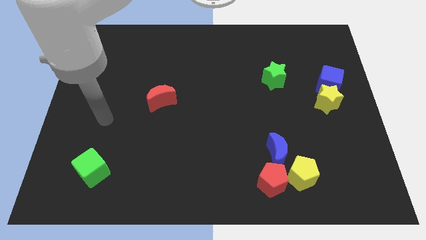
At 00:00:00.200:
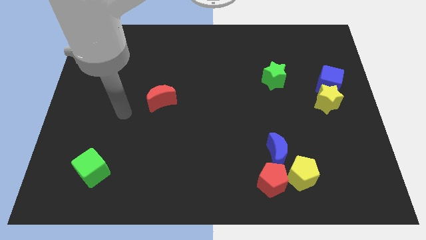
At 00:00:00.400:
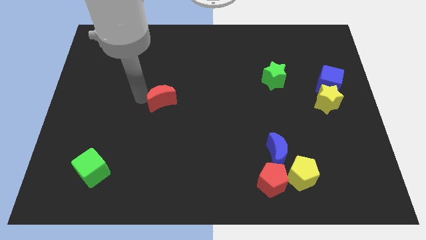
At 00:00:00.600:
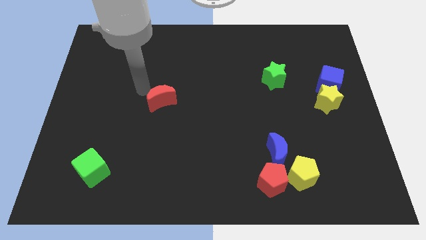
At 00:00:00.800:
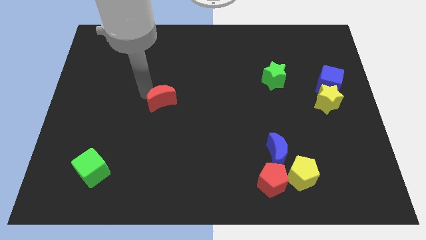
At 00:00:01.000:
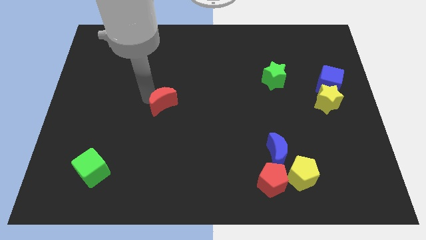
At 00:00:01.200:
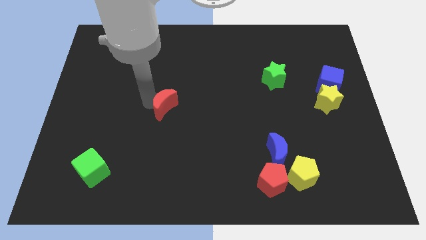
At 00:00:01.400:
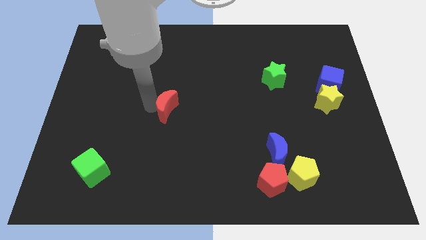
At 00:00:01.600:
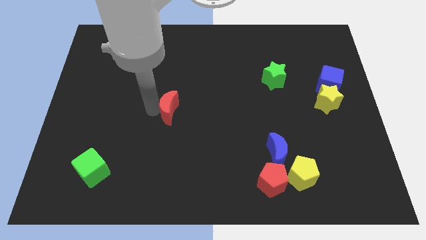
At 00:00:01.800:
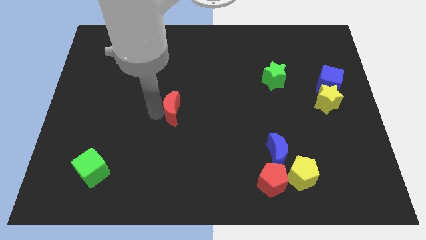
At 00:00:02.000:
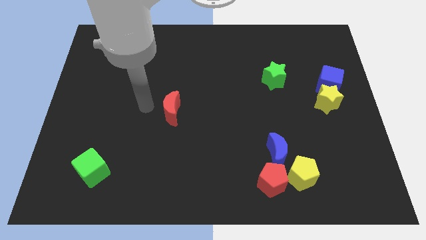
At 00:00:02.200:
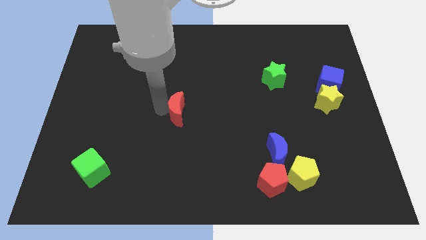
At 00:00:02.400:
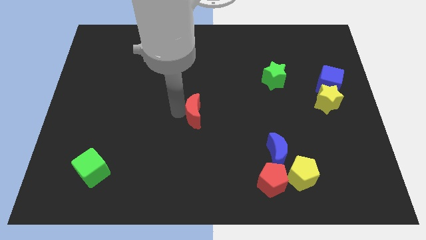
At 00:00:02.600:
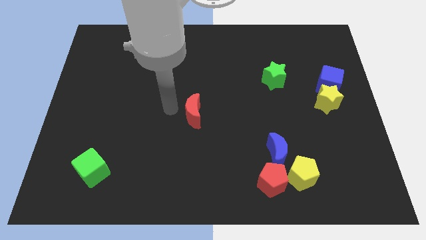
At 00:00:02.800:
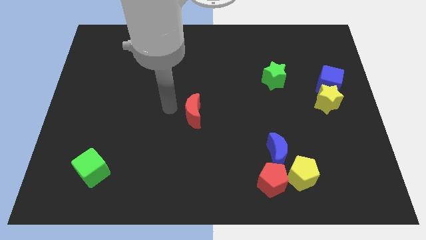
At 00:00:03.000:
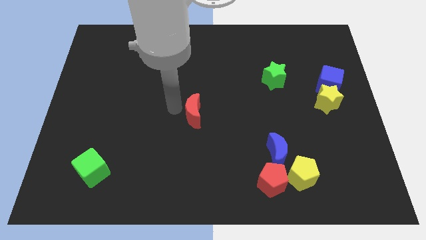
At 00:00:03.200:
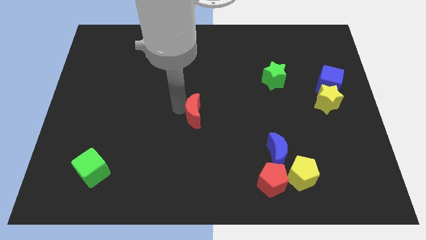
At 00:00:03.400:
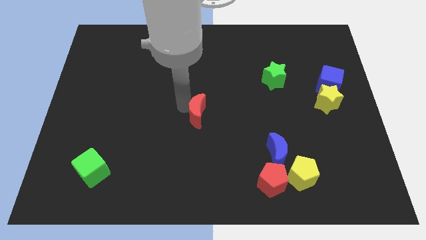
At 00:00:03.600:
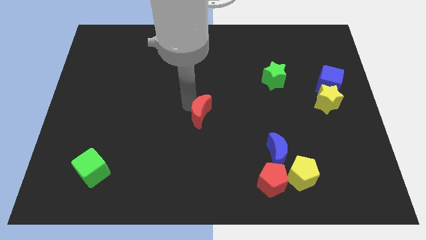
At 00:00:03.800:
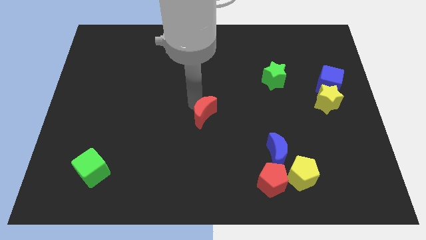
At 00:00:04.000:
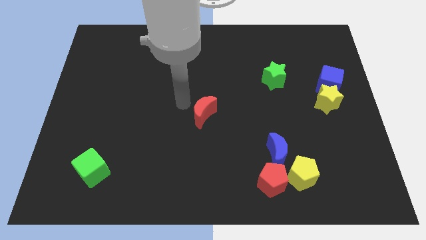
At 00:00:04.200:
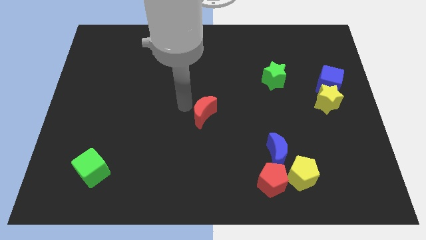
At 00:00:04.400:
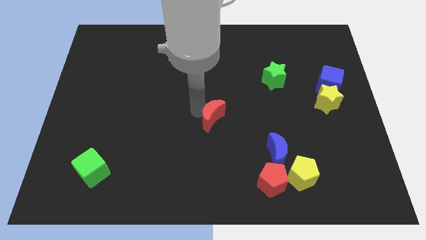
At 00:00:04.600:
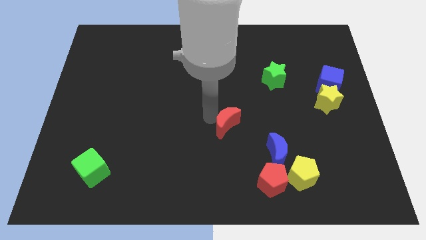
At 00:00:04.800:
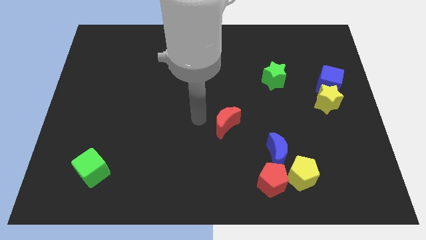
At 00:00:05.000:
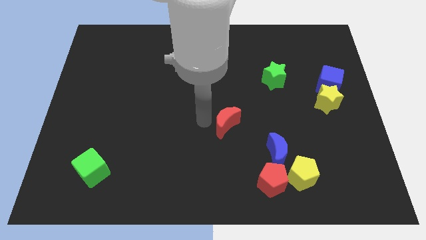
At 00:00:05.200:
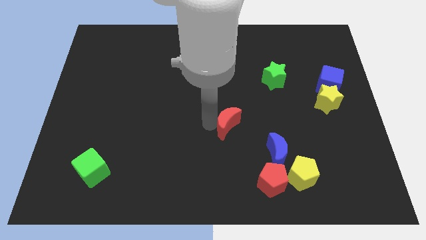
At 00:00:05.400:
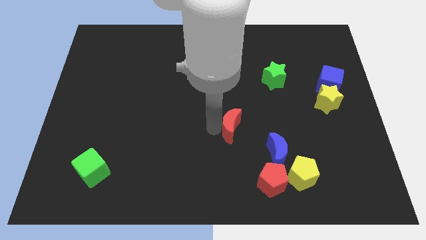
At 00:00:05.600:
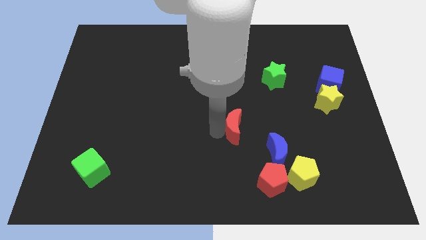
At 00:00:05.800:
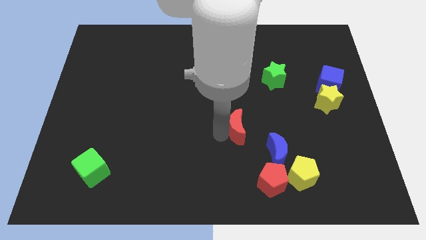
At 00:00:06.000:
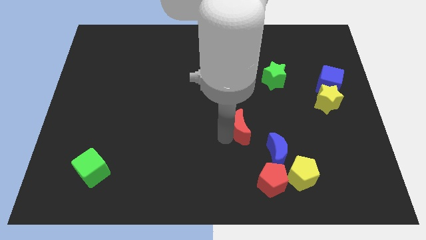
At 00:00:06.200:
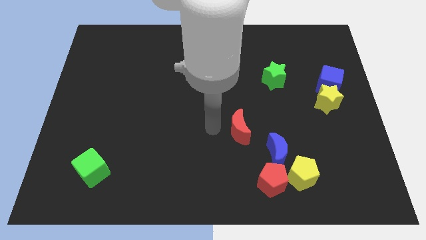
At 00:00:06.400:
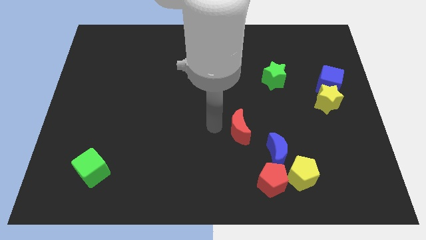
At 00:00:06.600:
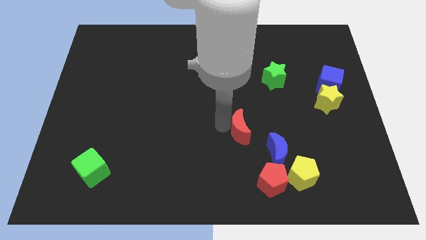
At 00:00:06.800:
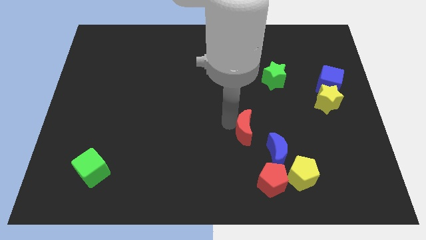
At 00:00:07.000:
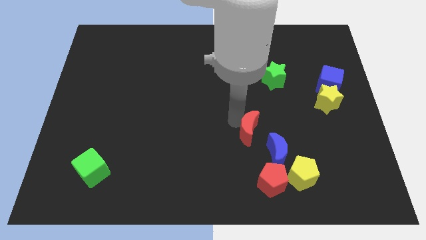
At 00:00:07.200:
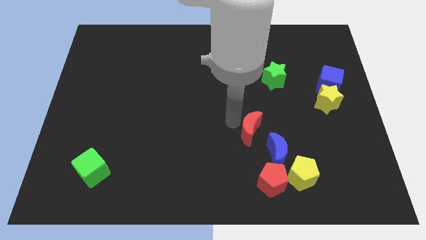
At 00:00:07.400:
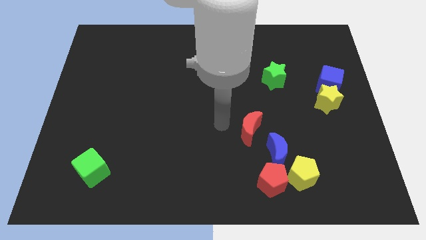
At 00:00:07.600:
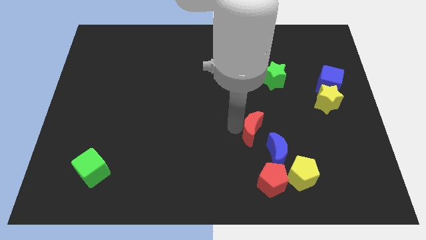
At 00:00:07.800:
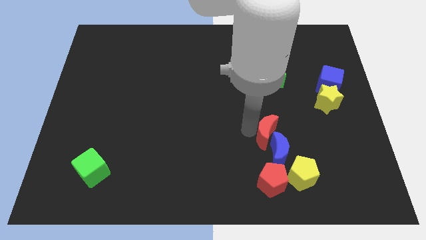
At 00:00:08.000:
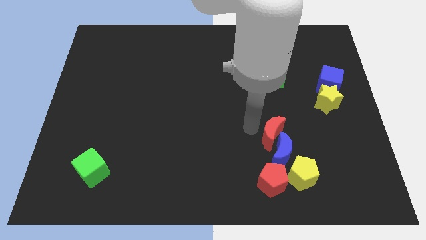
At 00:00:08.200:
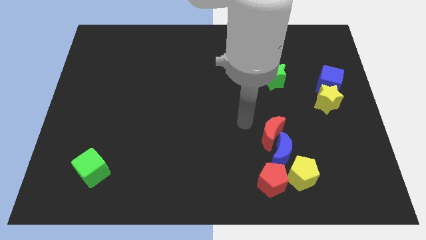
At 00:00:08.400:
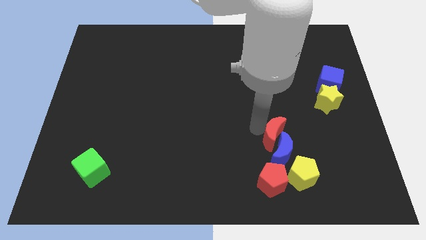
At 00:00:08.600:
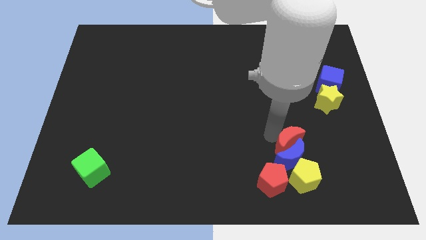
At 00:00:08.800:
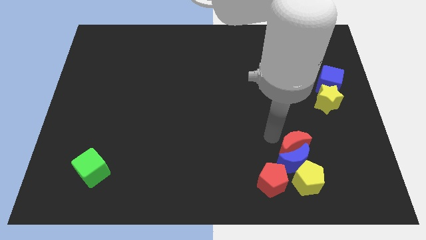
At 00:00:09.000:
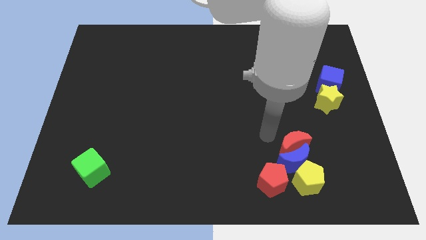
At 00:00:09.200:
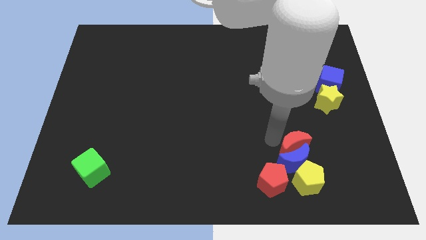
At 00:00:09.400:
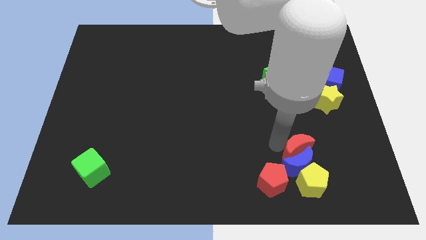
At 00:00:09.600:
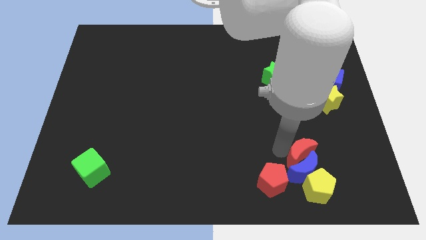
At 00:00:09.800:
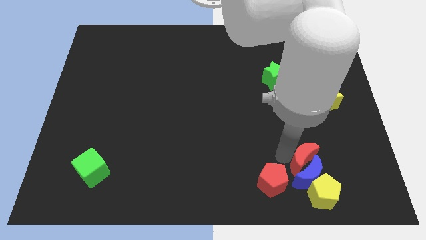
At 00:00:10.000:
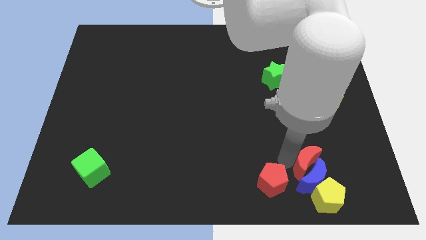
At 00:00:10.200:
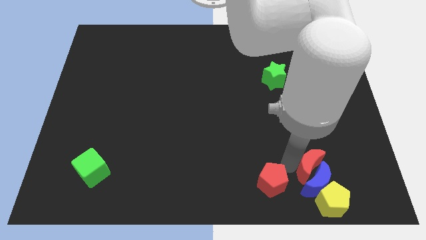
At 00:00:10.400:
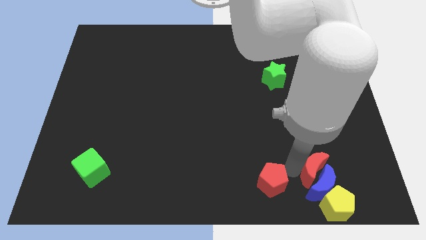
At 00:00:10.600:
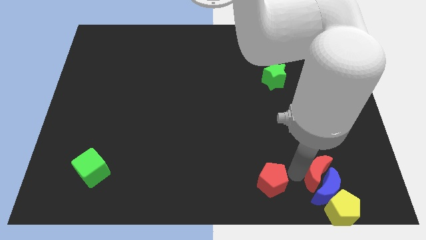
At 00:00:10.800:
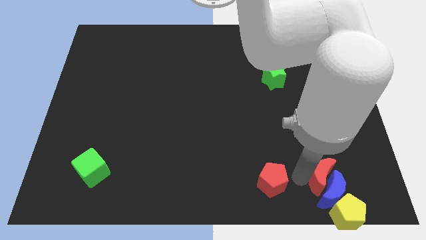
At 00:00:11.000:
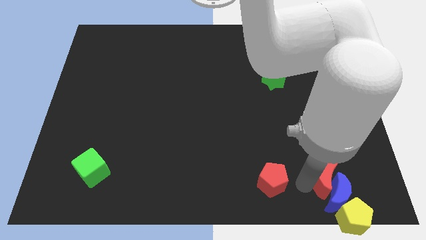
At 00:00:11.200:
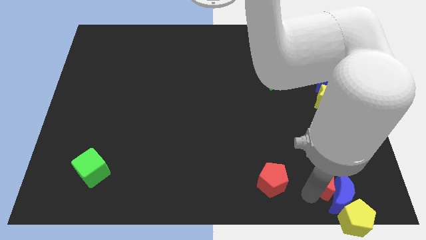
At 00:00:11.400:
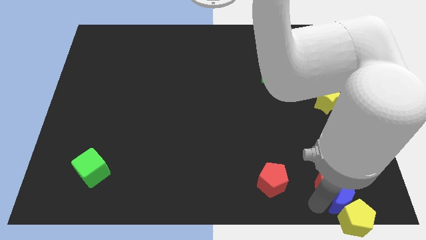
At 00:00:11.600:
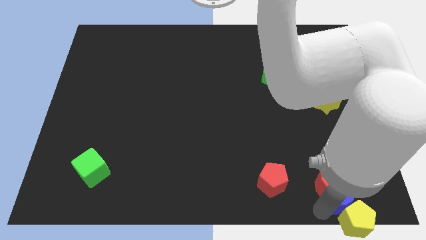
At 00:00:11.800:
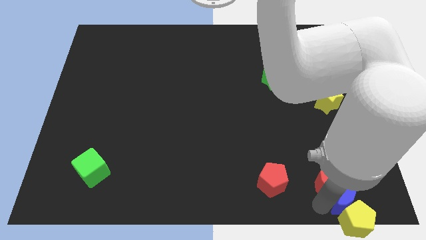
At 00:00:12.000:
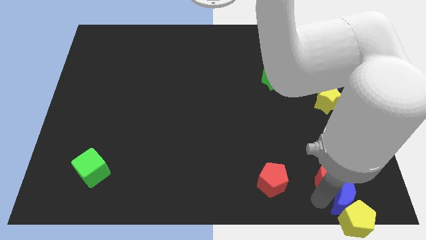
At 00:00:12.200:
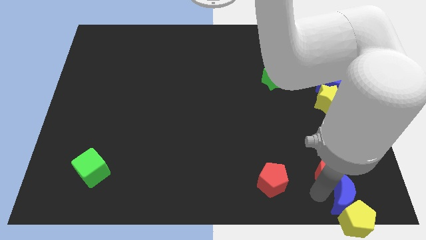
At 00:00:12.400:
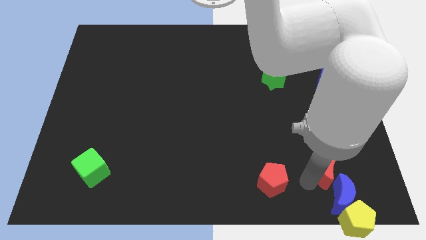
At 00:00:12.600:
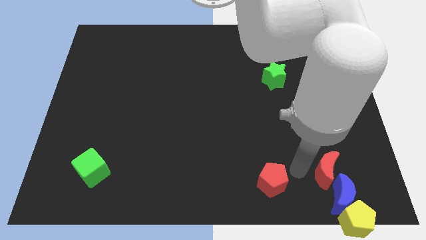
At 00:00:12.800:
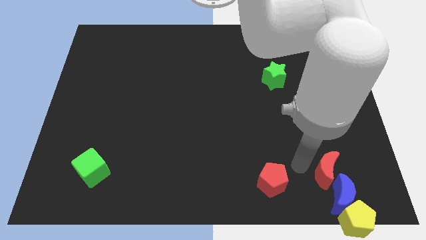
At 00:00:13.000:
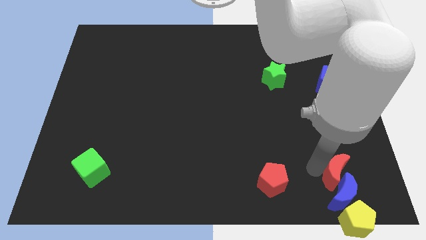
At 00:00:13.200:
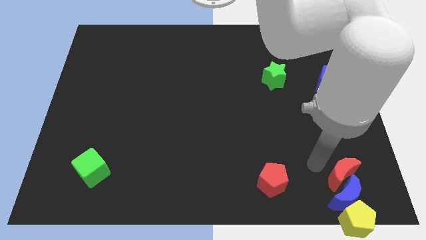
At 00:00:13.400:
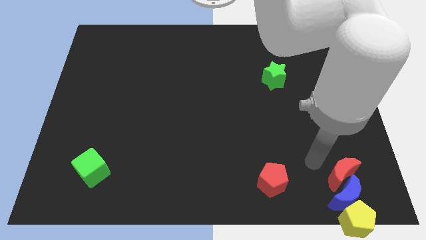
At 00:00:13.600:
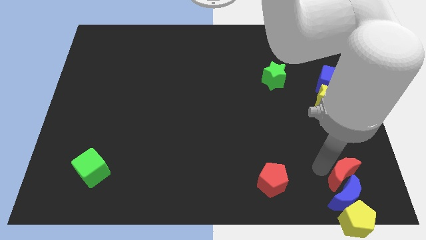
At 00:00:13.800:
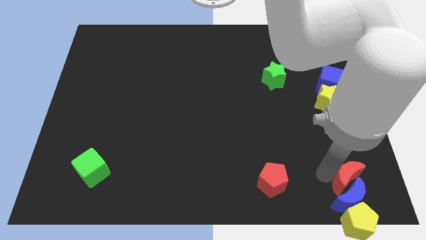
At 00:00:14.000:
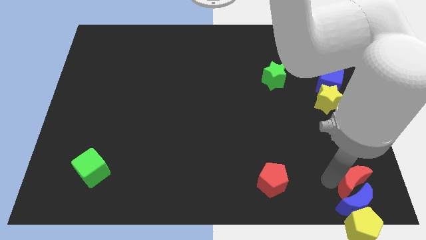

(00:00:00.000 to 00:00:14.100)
slide the red moon to the bottom right of the board
